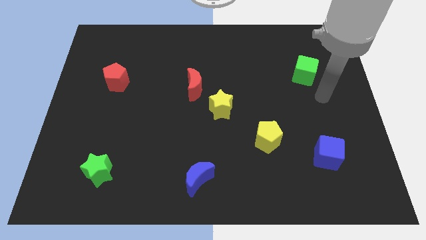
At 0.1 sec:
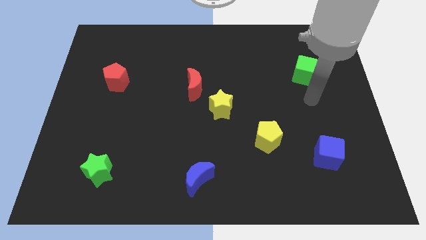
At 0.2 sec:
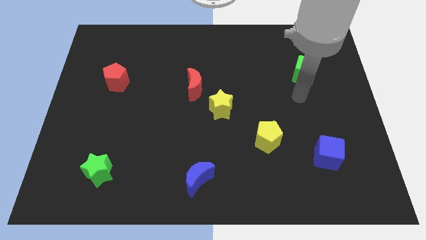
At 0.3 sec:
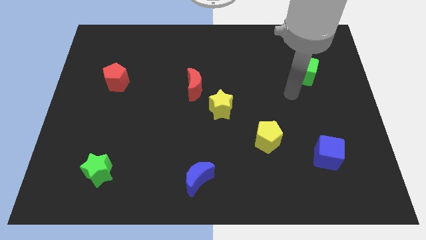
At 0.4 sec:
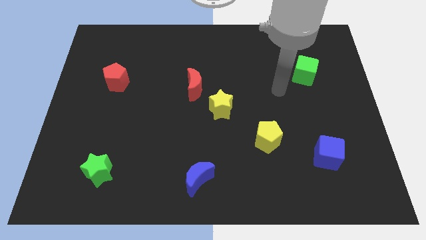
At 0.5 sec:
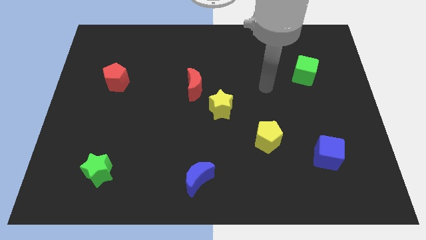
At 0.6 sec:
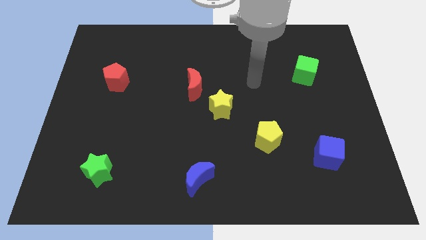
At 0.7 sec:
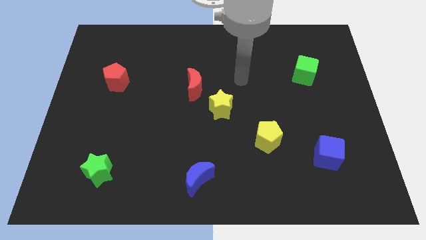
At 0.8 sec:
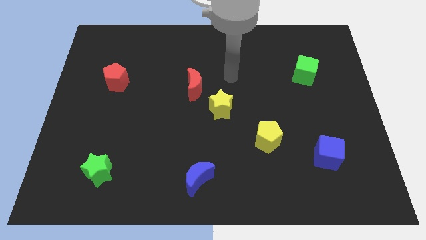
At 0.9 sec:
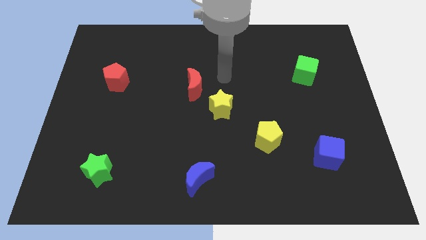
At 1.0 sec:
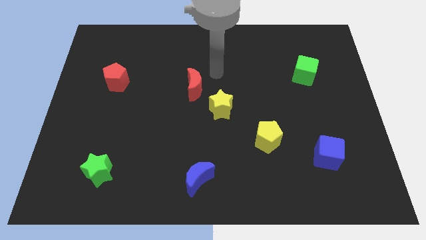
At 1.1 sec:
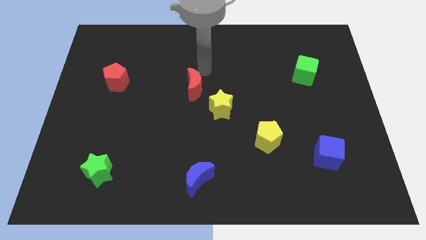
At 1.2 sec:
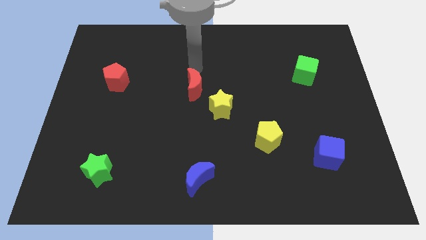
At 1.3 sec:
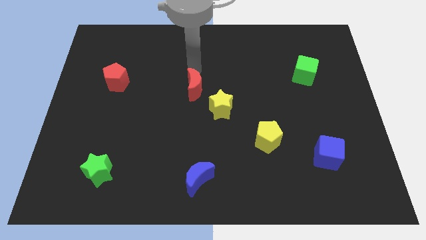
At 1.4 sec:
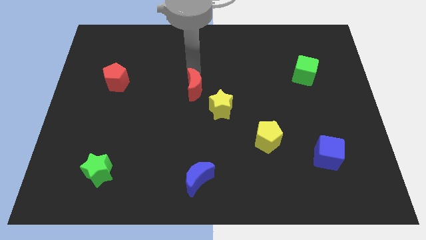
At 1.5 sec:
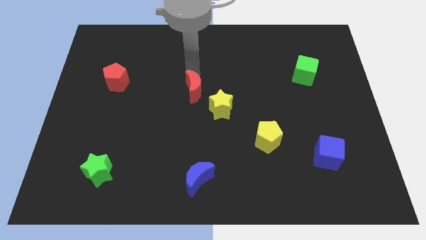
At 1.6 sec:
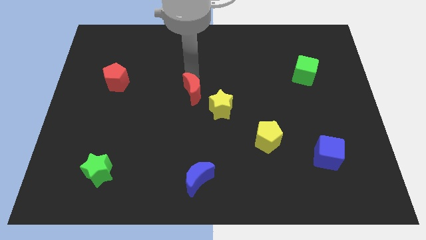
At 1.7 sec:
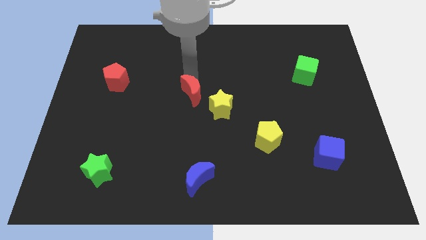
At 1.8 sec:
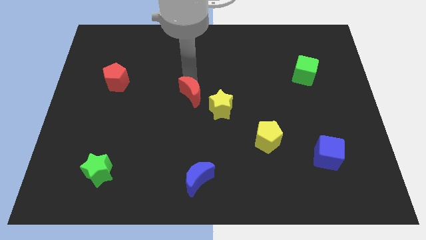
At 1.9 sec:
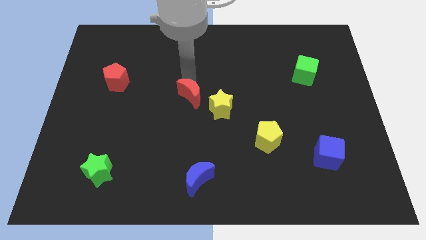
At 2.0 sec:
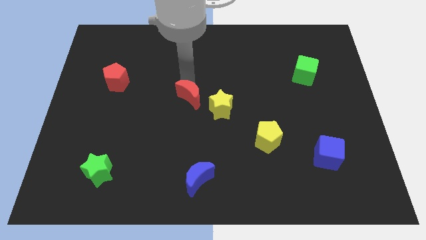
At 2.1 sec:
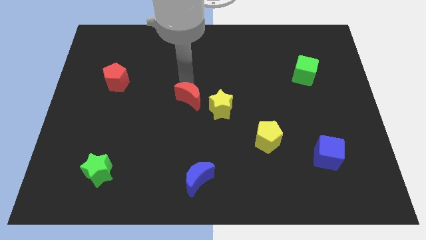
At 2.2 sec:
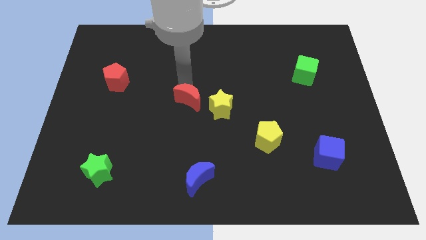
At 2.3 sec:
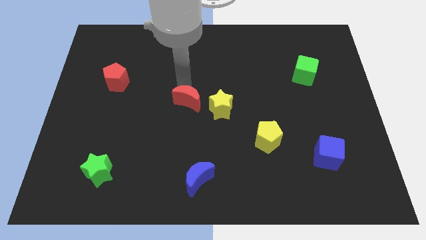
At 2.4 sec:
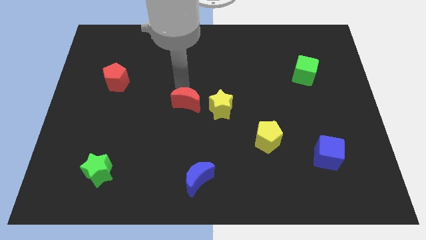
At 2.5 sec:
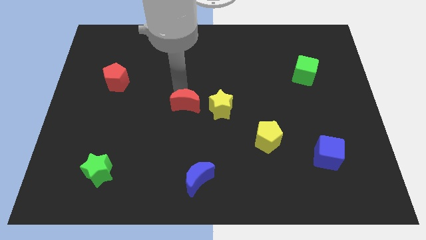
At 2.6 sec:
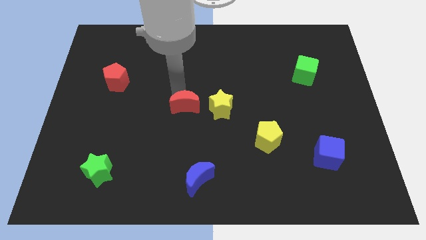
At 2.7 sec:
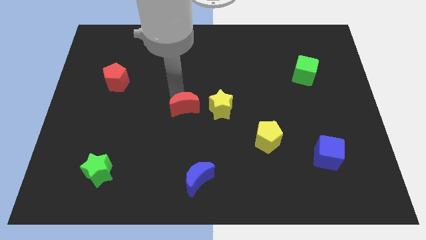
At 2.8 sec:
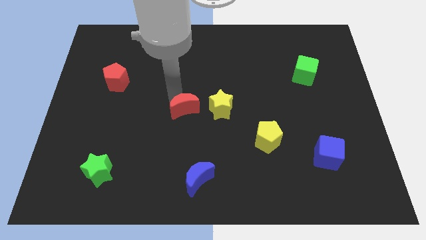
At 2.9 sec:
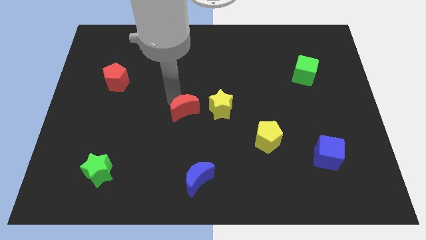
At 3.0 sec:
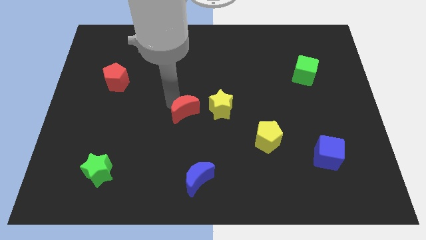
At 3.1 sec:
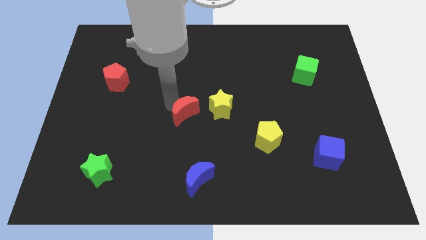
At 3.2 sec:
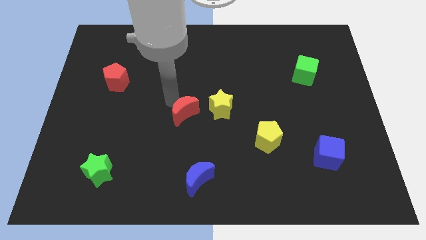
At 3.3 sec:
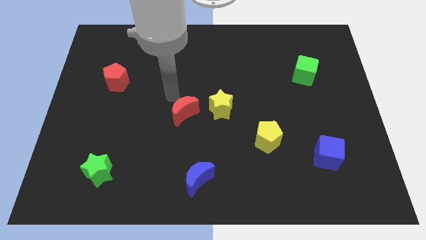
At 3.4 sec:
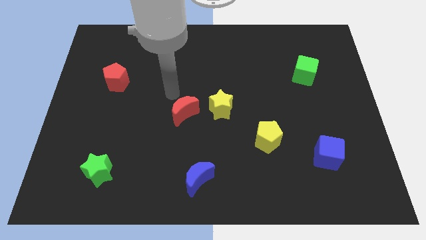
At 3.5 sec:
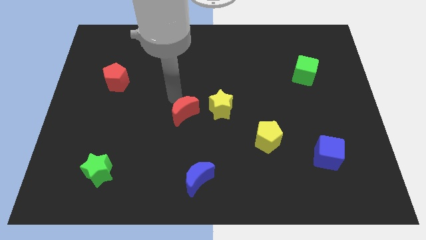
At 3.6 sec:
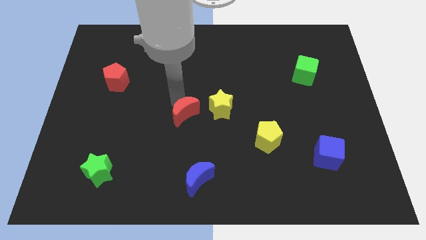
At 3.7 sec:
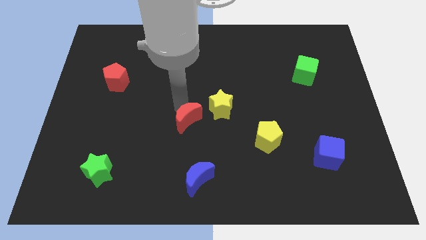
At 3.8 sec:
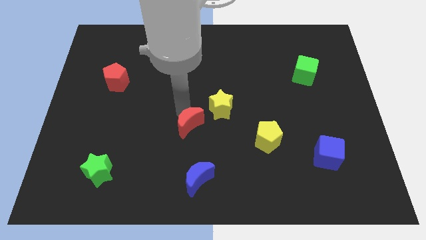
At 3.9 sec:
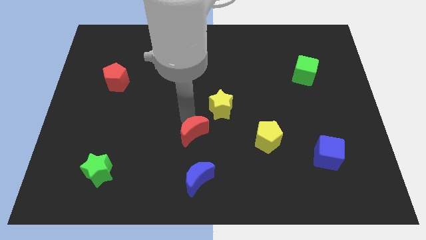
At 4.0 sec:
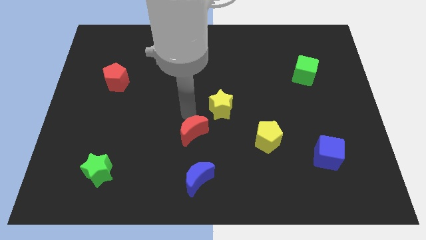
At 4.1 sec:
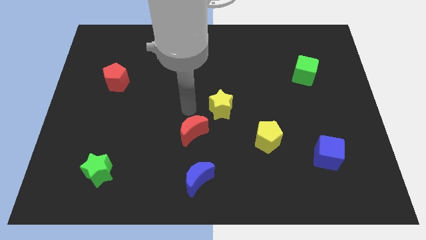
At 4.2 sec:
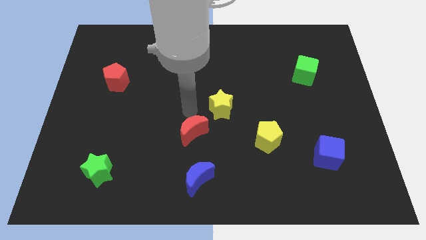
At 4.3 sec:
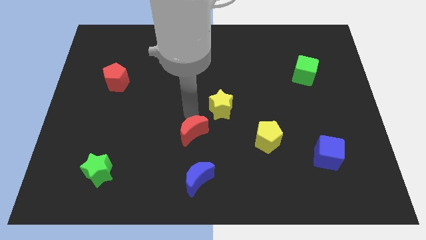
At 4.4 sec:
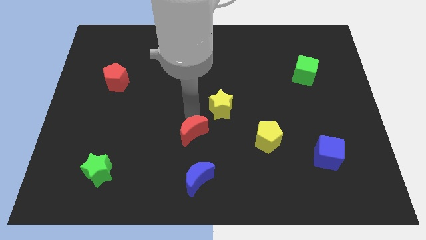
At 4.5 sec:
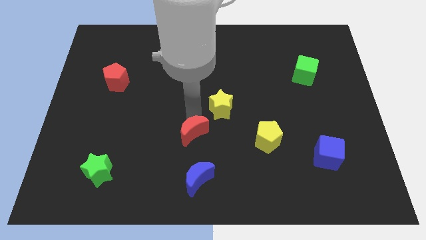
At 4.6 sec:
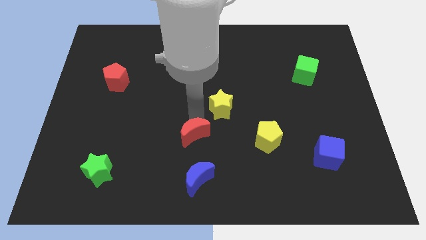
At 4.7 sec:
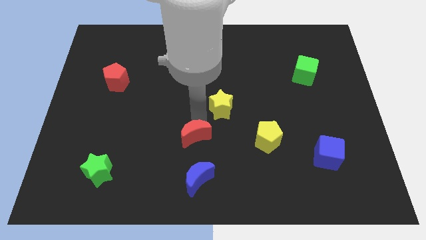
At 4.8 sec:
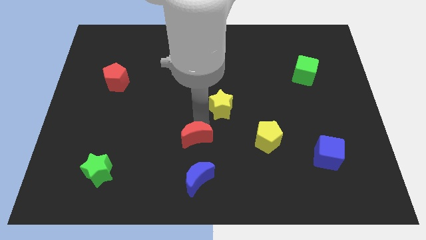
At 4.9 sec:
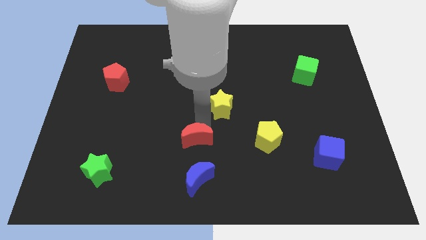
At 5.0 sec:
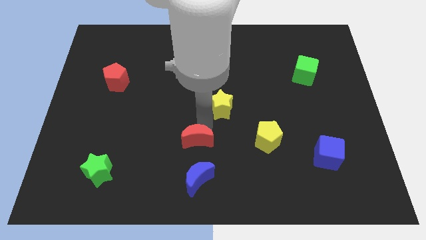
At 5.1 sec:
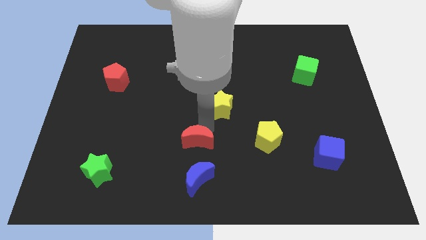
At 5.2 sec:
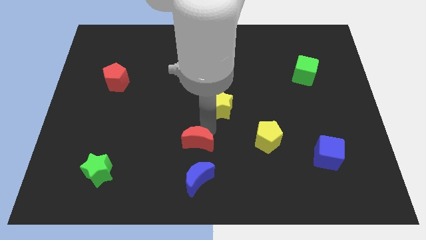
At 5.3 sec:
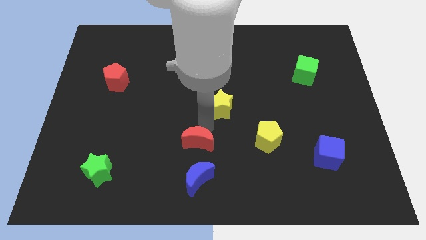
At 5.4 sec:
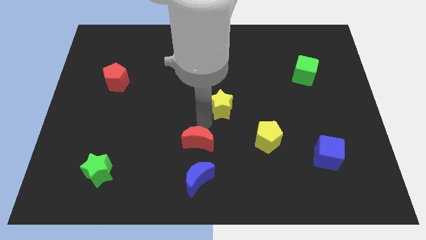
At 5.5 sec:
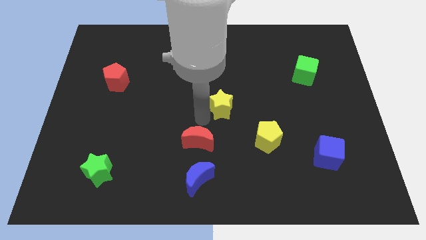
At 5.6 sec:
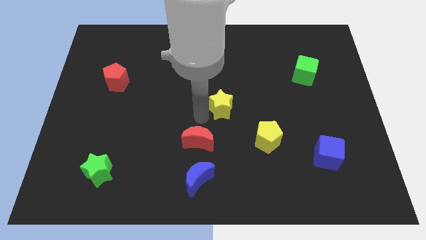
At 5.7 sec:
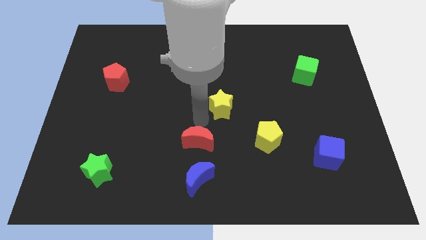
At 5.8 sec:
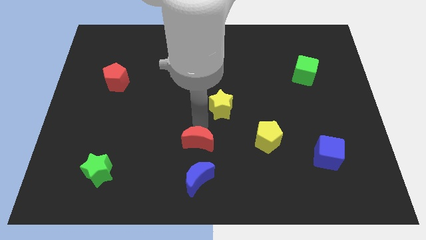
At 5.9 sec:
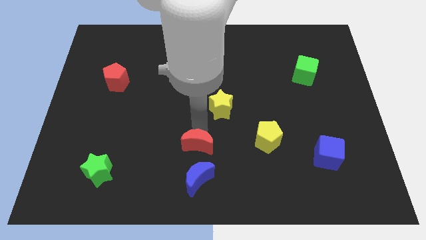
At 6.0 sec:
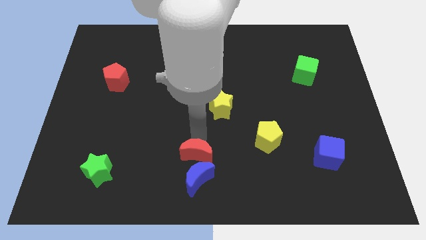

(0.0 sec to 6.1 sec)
put the red moon close to the blue moon

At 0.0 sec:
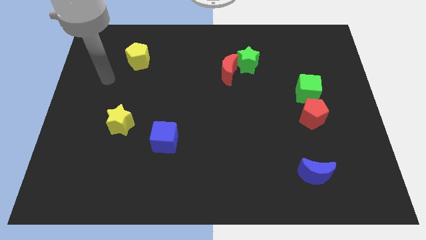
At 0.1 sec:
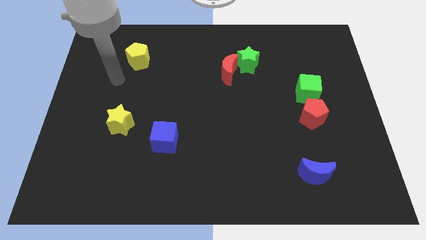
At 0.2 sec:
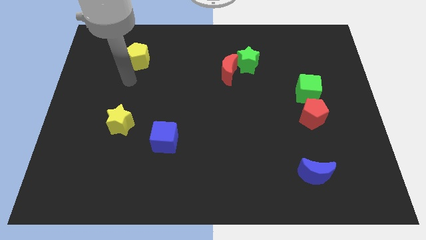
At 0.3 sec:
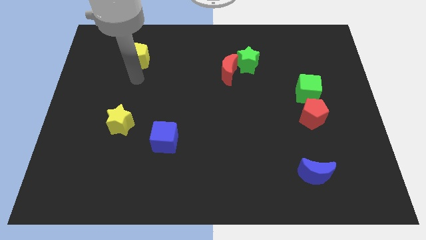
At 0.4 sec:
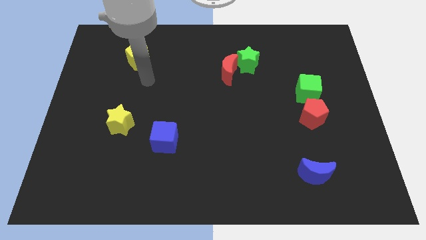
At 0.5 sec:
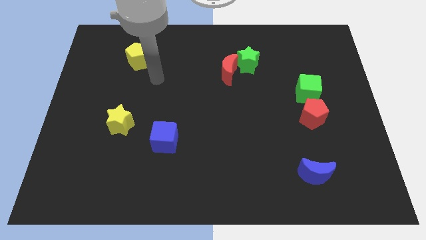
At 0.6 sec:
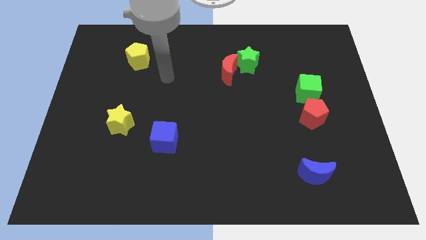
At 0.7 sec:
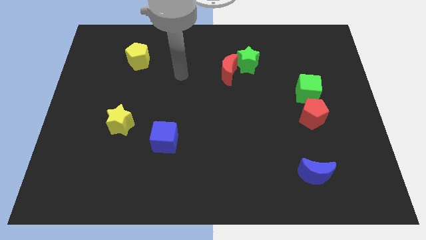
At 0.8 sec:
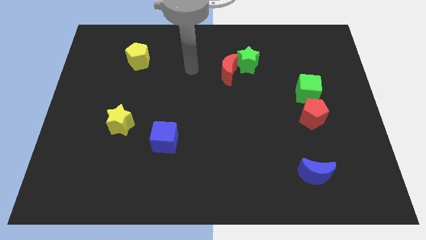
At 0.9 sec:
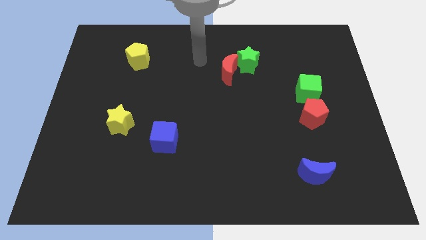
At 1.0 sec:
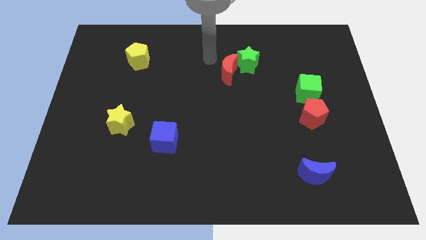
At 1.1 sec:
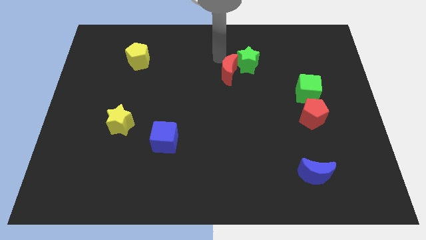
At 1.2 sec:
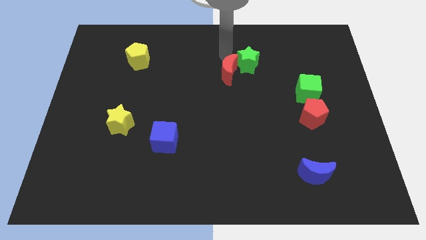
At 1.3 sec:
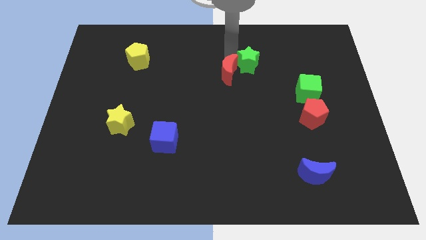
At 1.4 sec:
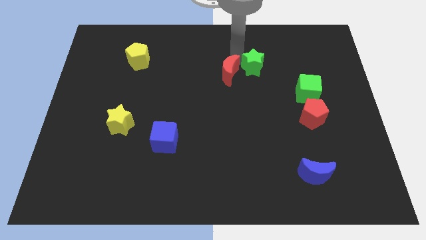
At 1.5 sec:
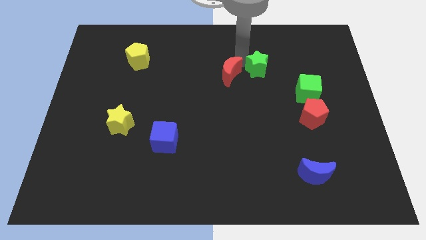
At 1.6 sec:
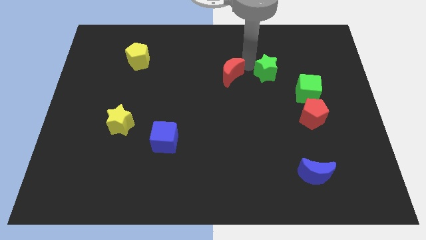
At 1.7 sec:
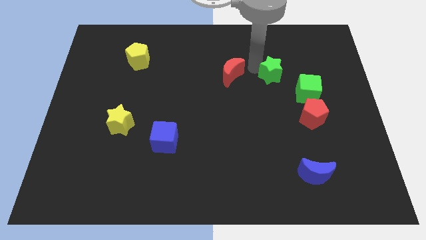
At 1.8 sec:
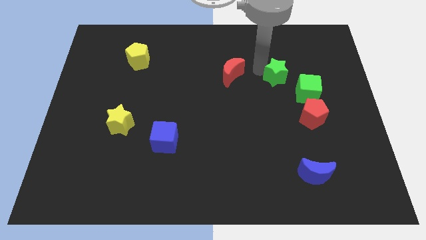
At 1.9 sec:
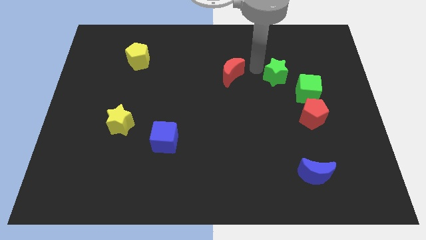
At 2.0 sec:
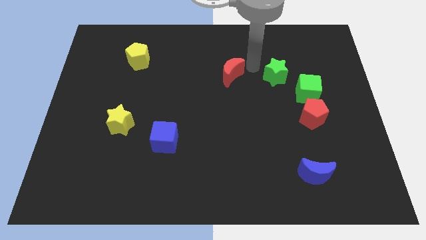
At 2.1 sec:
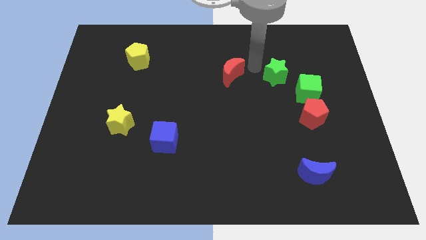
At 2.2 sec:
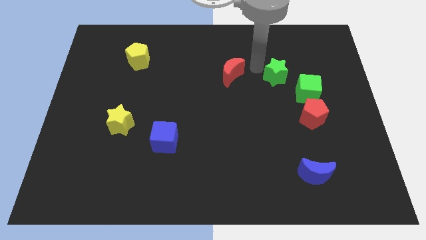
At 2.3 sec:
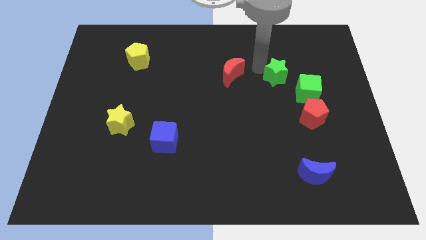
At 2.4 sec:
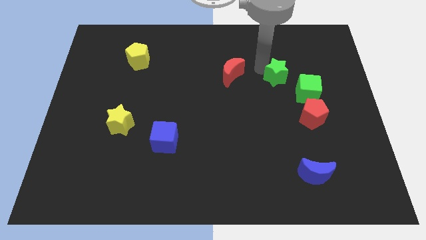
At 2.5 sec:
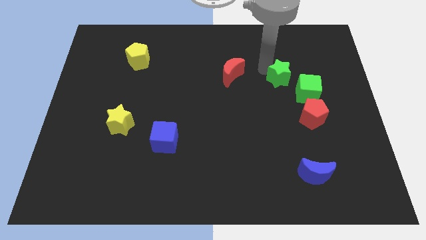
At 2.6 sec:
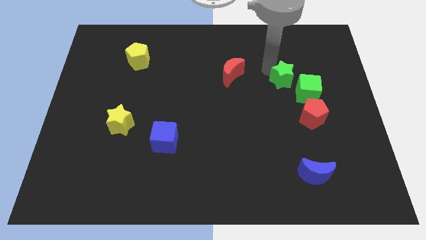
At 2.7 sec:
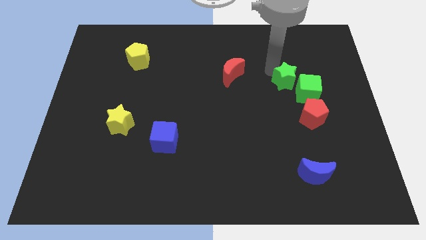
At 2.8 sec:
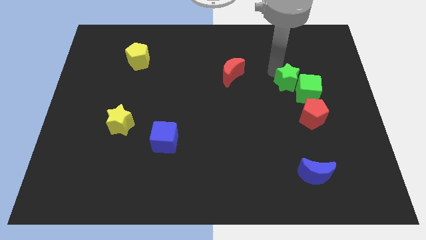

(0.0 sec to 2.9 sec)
move the green star close to the green cube
